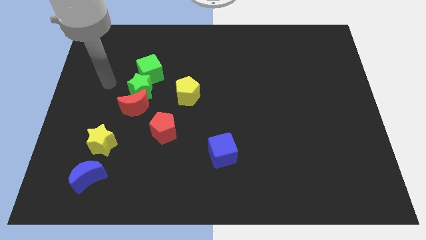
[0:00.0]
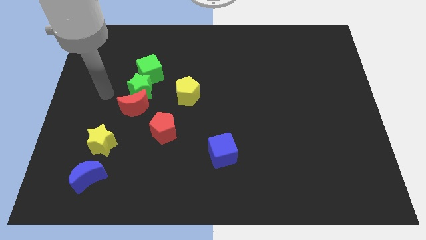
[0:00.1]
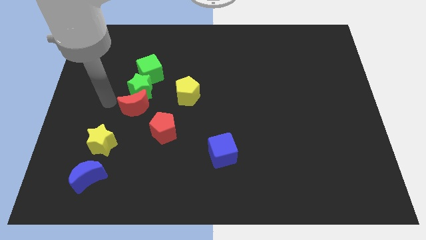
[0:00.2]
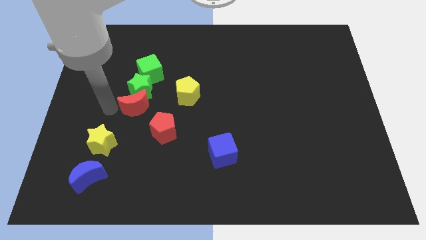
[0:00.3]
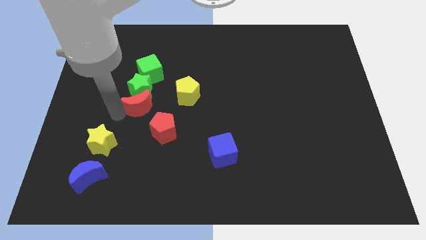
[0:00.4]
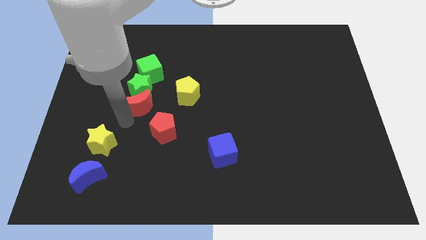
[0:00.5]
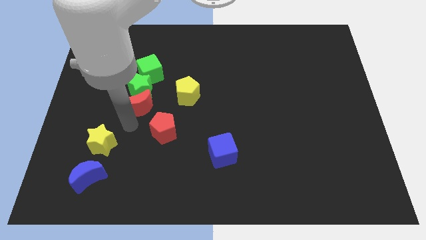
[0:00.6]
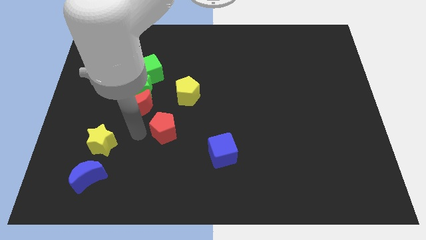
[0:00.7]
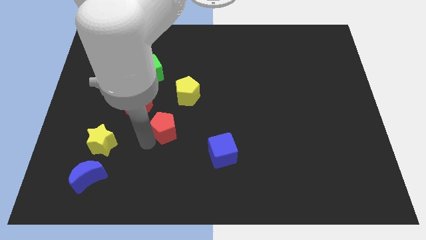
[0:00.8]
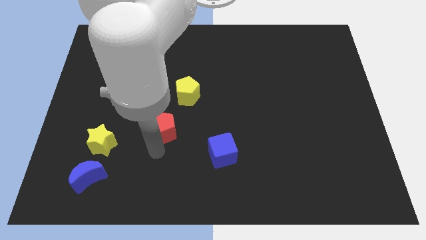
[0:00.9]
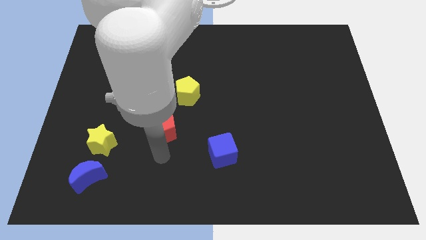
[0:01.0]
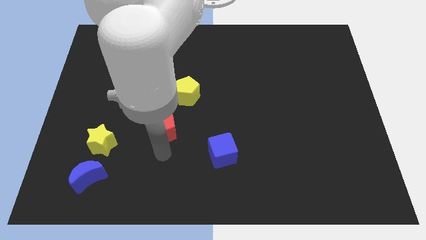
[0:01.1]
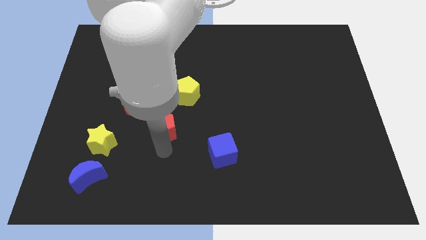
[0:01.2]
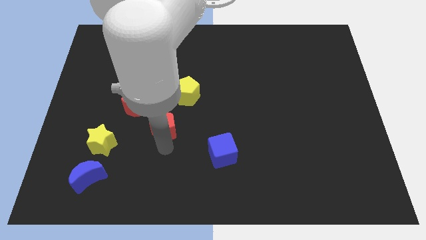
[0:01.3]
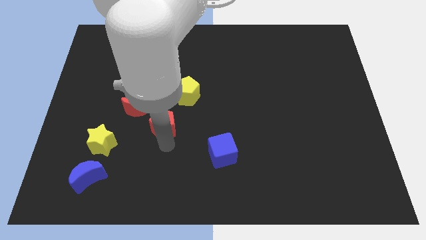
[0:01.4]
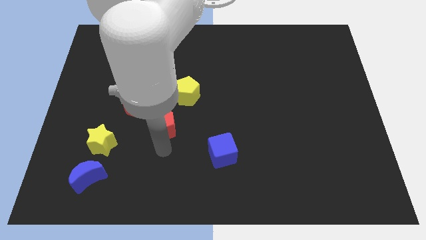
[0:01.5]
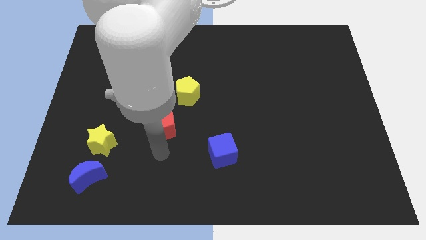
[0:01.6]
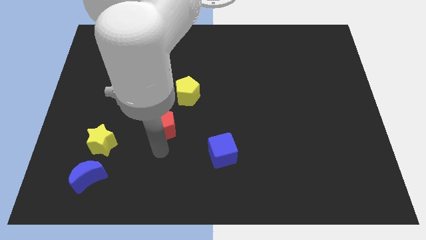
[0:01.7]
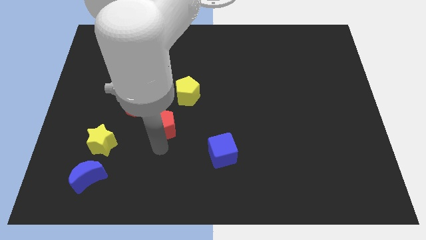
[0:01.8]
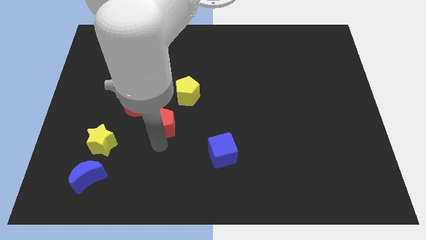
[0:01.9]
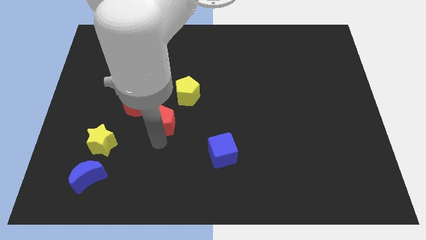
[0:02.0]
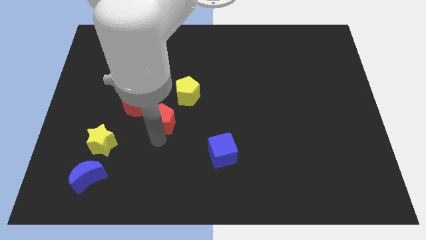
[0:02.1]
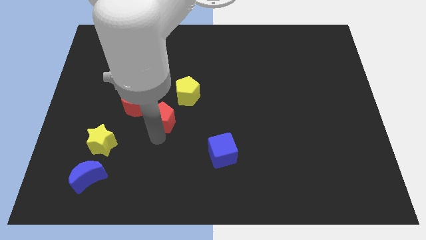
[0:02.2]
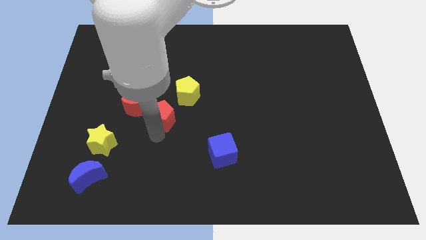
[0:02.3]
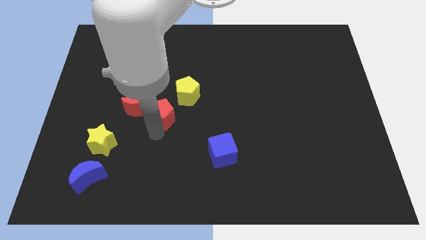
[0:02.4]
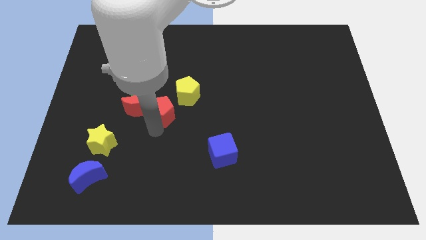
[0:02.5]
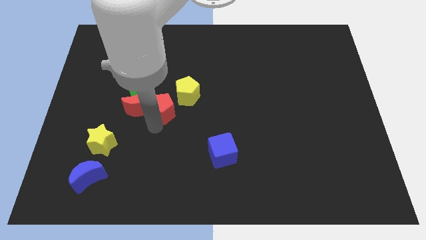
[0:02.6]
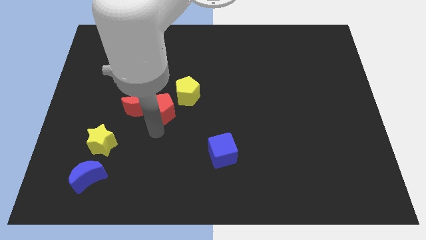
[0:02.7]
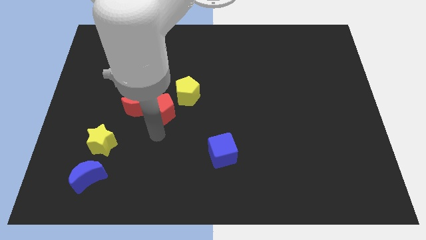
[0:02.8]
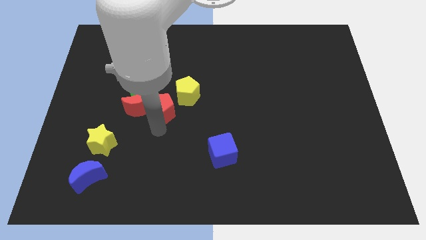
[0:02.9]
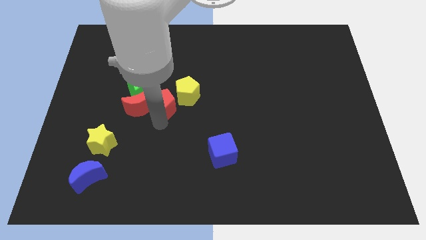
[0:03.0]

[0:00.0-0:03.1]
slightly move the red pentagon up

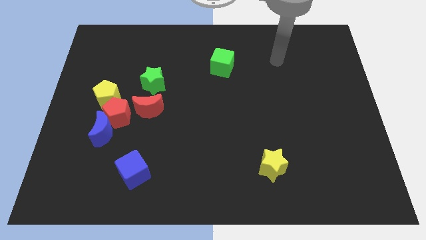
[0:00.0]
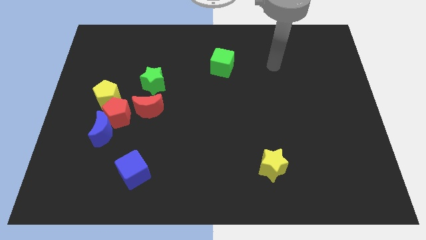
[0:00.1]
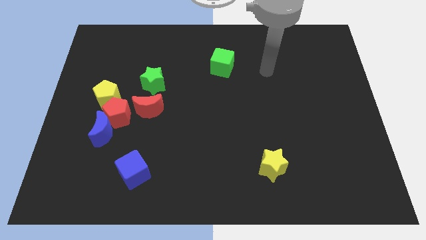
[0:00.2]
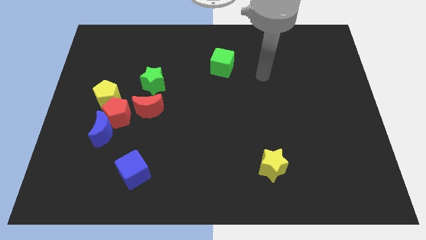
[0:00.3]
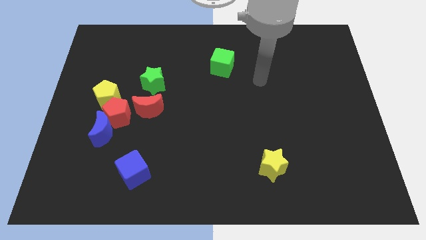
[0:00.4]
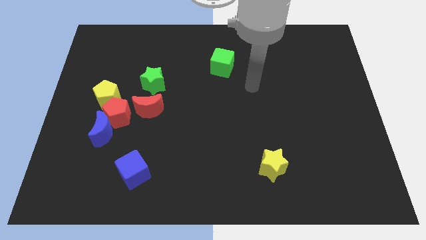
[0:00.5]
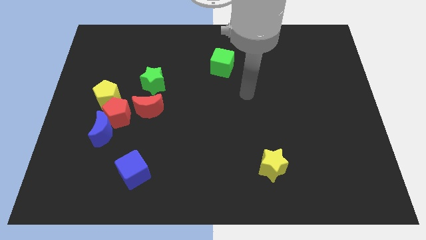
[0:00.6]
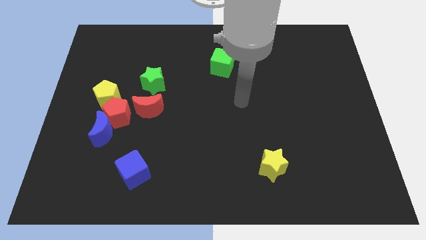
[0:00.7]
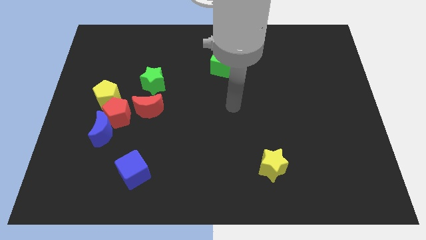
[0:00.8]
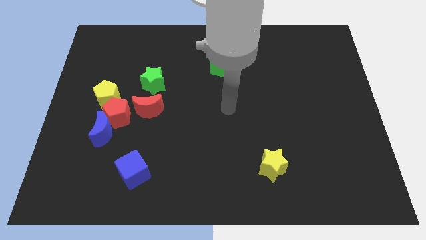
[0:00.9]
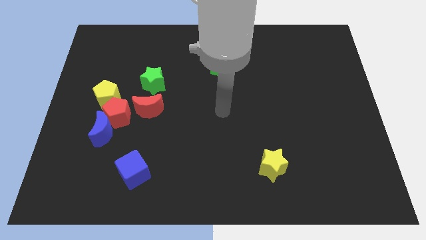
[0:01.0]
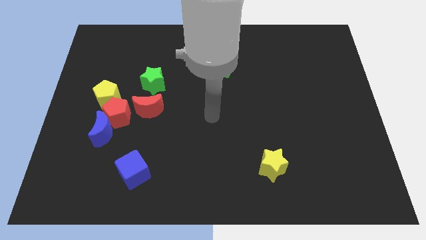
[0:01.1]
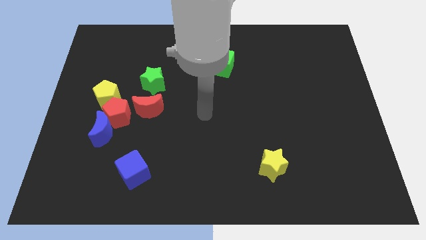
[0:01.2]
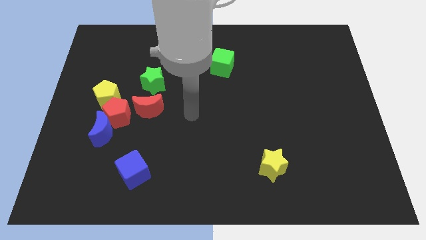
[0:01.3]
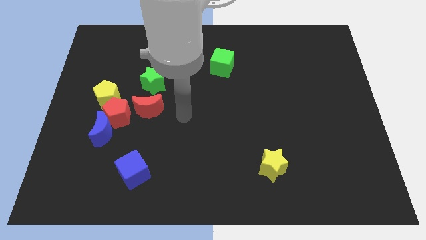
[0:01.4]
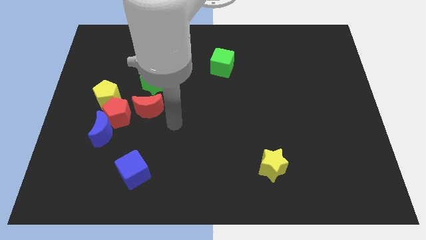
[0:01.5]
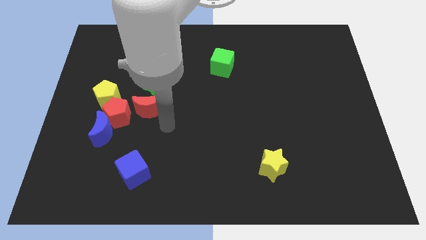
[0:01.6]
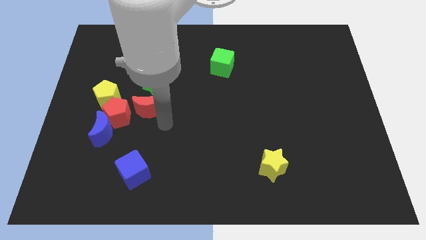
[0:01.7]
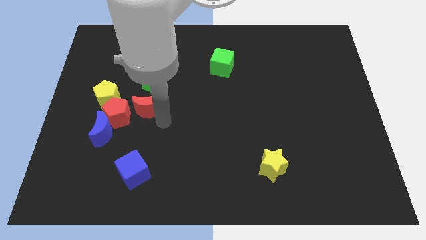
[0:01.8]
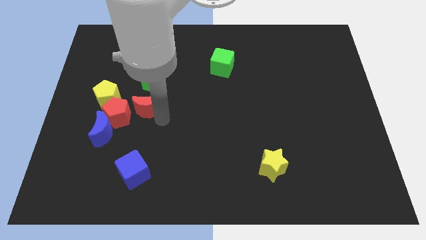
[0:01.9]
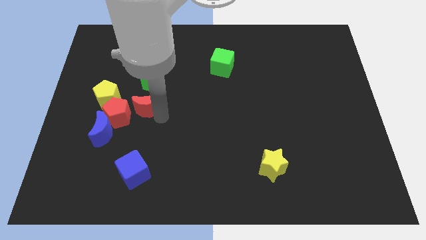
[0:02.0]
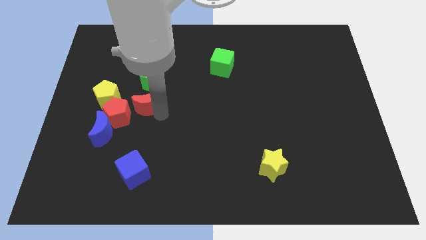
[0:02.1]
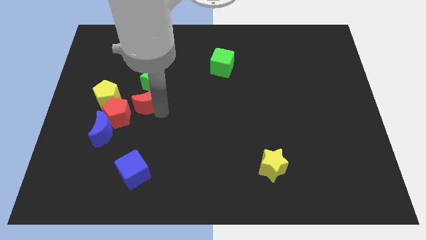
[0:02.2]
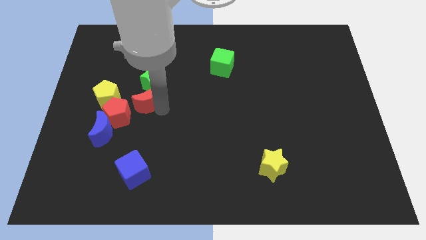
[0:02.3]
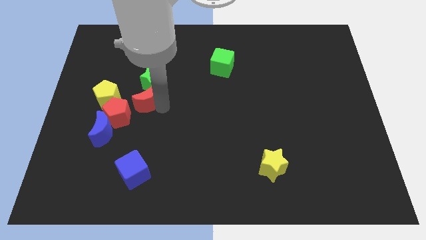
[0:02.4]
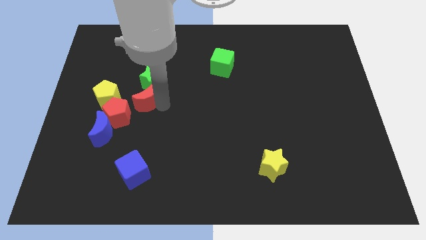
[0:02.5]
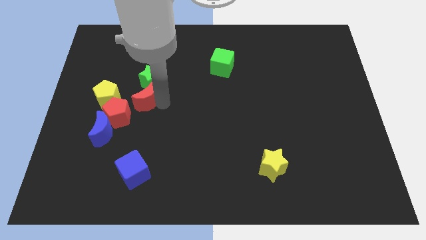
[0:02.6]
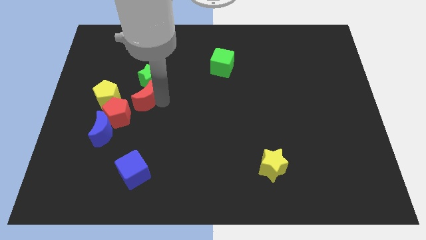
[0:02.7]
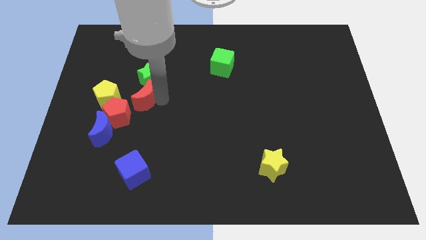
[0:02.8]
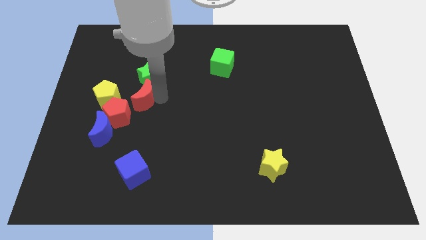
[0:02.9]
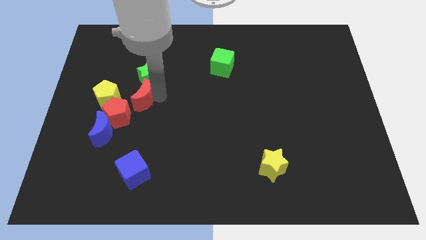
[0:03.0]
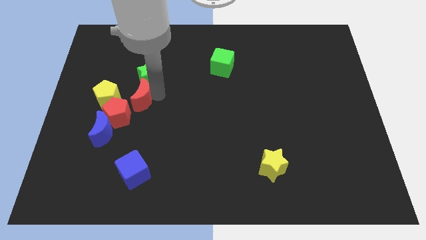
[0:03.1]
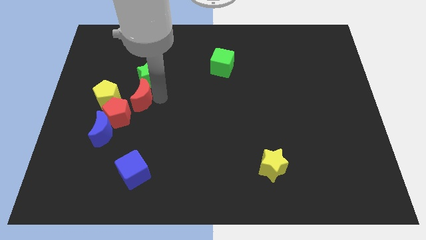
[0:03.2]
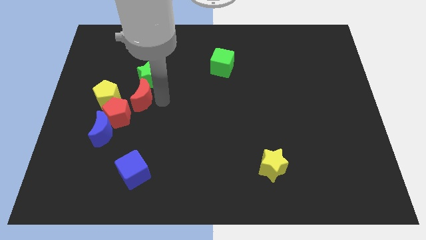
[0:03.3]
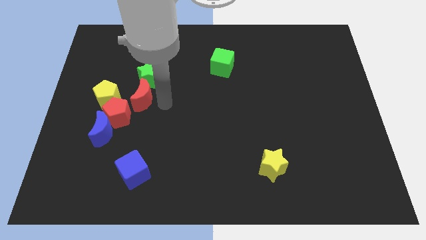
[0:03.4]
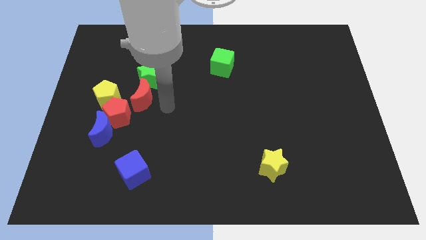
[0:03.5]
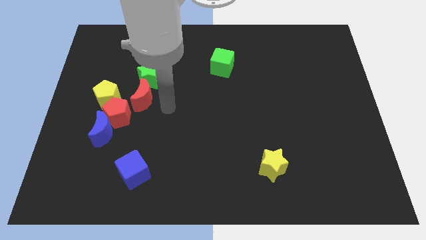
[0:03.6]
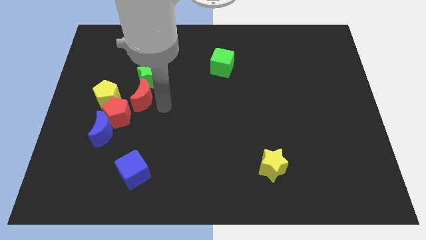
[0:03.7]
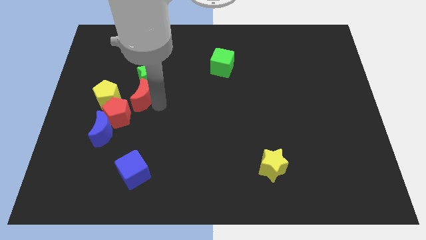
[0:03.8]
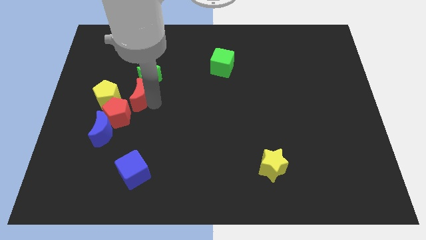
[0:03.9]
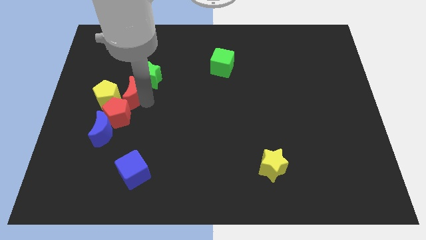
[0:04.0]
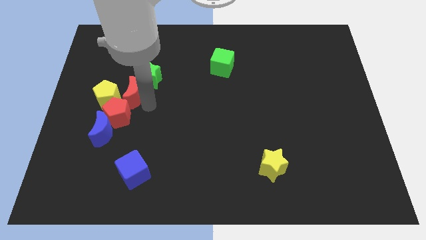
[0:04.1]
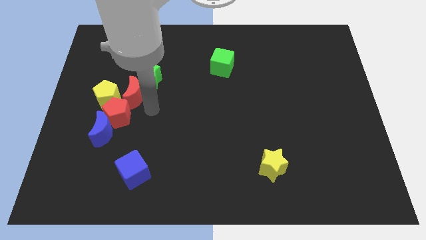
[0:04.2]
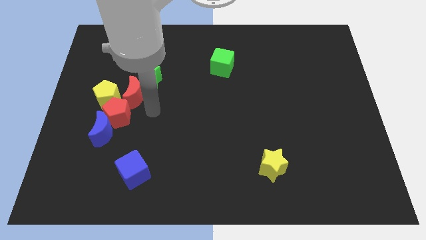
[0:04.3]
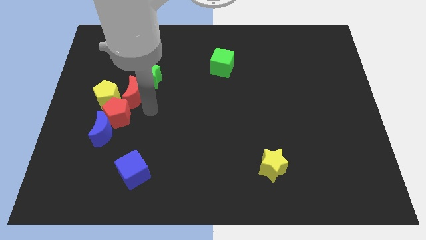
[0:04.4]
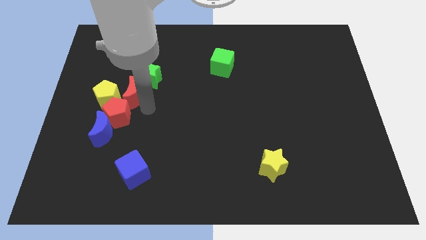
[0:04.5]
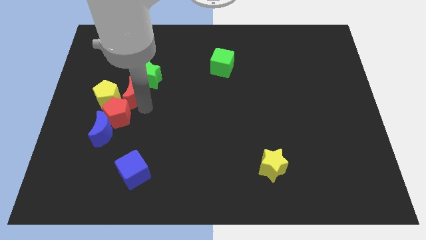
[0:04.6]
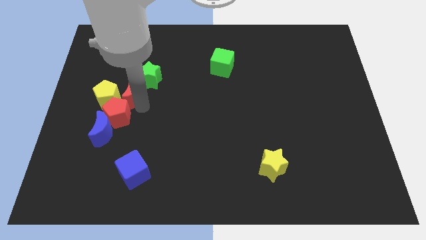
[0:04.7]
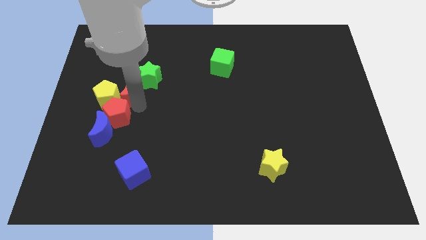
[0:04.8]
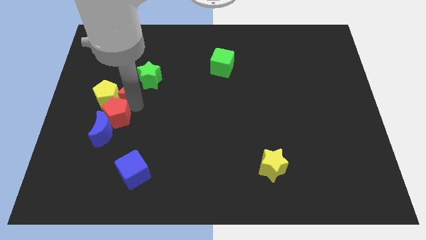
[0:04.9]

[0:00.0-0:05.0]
slide the red moon a little bit upwards and to the left
